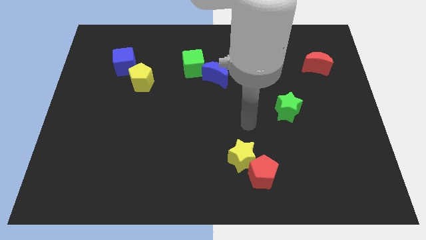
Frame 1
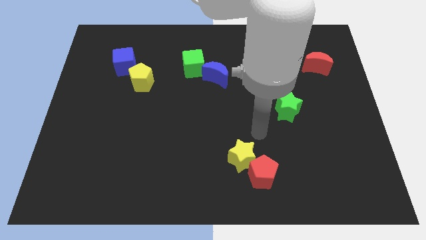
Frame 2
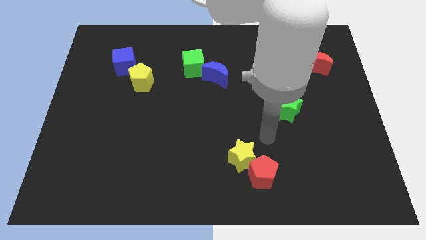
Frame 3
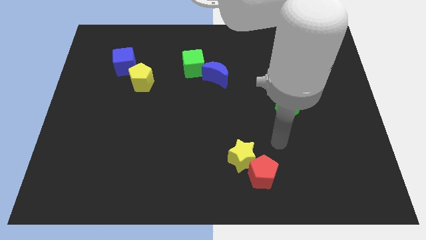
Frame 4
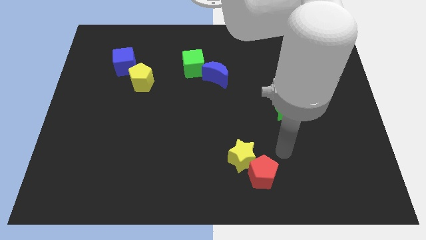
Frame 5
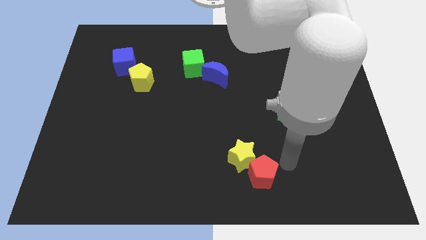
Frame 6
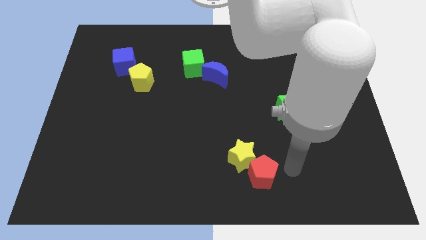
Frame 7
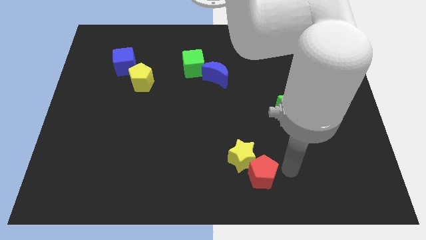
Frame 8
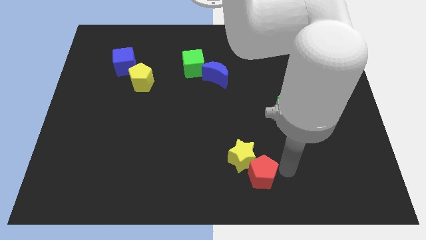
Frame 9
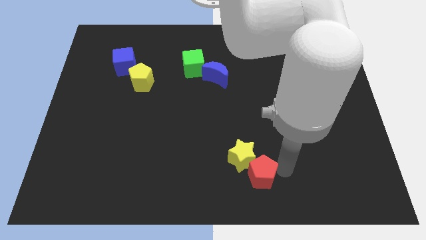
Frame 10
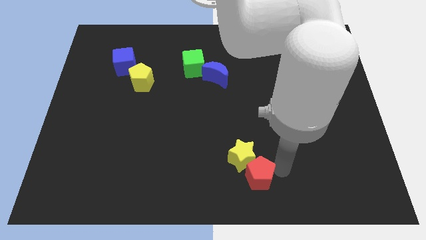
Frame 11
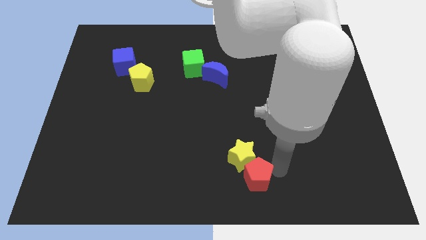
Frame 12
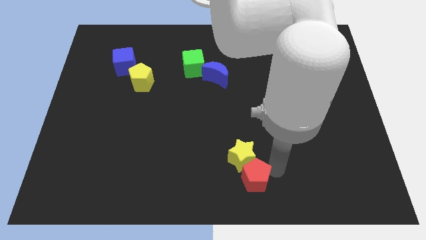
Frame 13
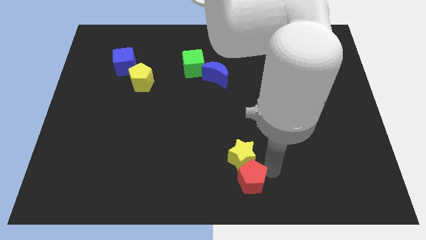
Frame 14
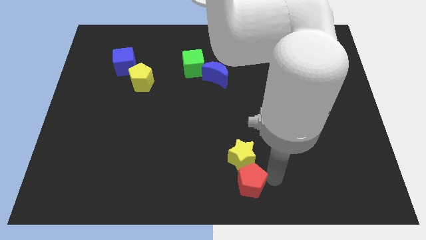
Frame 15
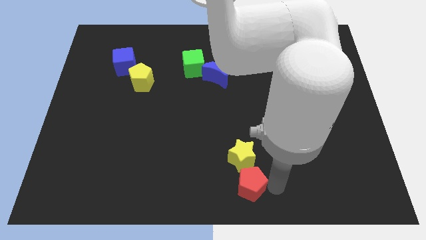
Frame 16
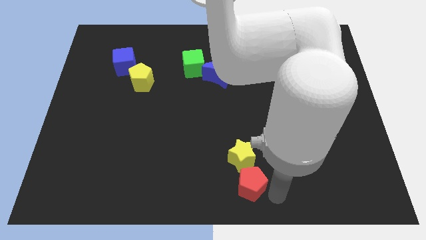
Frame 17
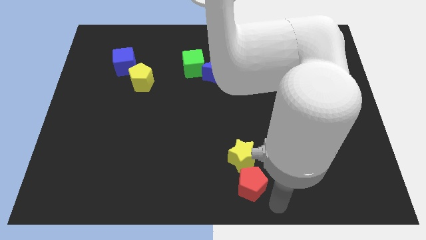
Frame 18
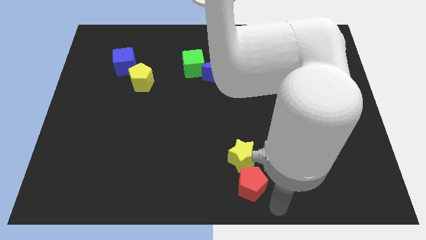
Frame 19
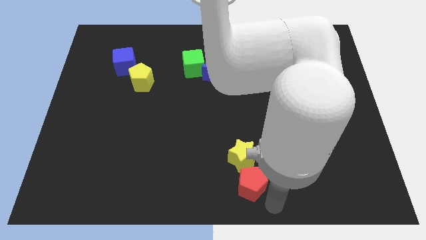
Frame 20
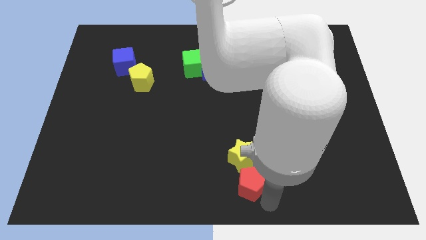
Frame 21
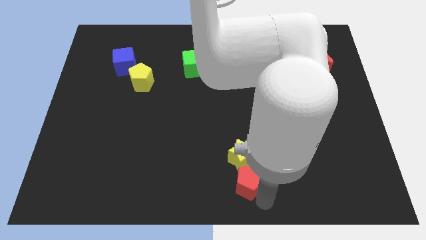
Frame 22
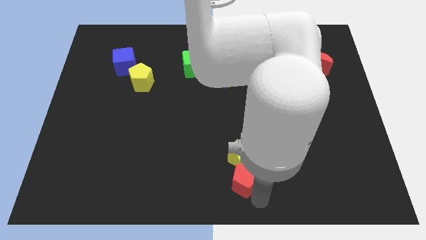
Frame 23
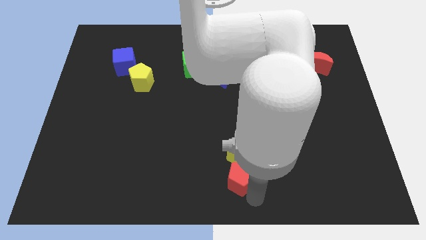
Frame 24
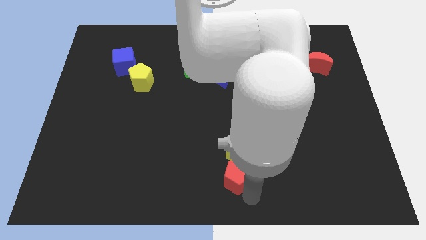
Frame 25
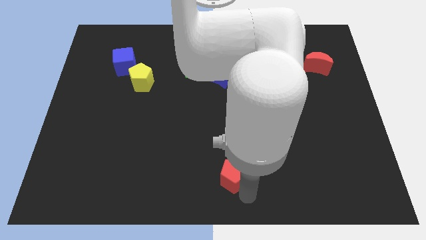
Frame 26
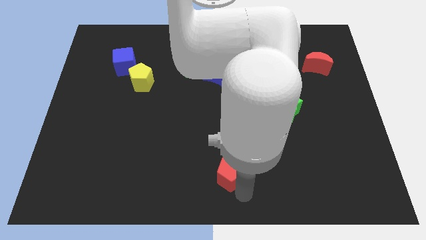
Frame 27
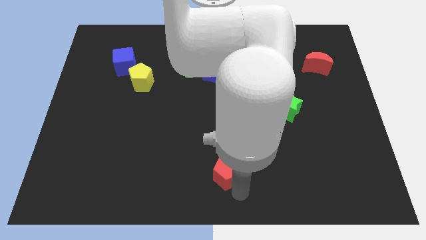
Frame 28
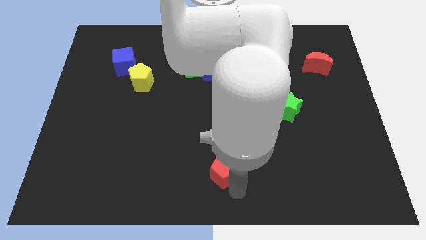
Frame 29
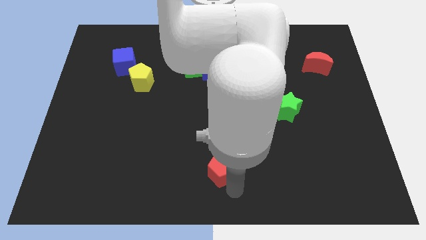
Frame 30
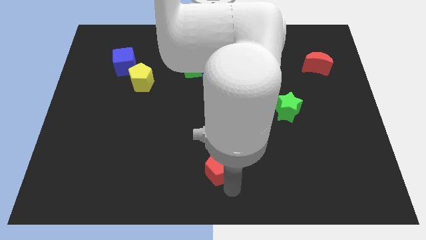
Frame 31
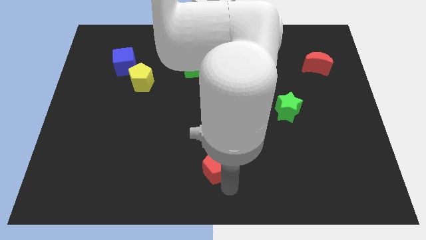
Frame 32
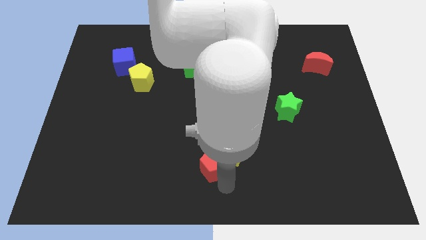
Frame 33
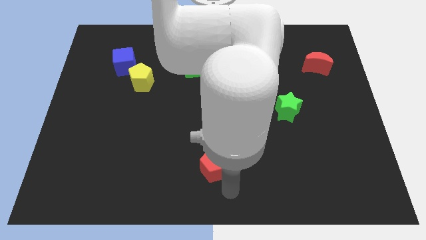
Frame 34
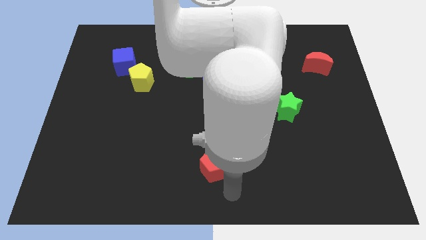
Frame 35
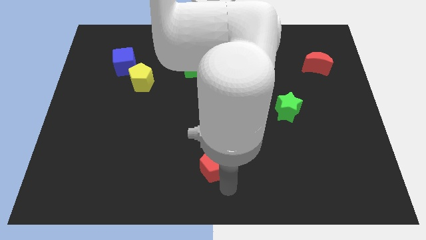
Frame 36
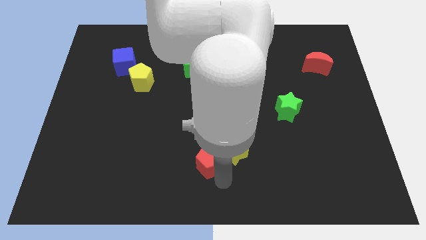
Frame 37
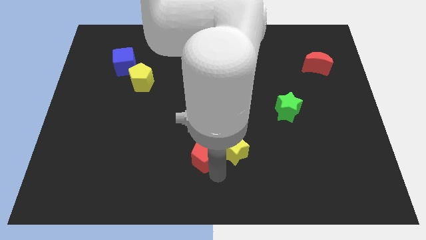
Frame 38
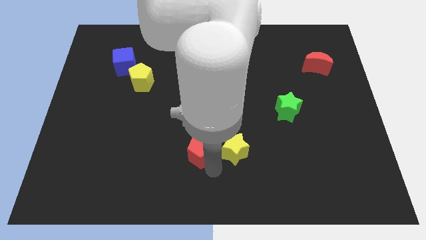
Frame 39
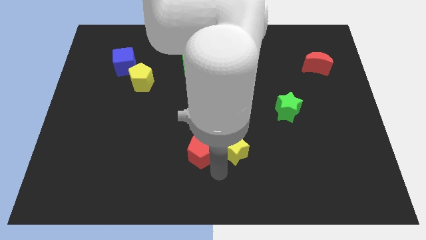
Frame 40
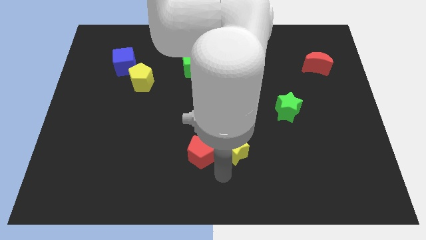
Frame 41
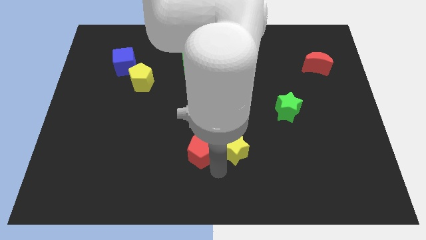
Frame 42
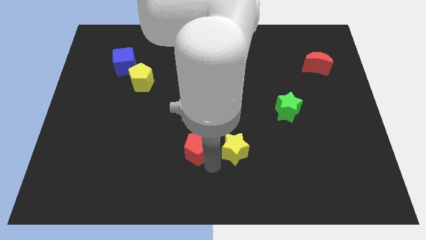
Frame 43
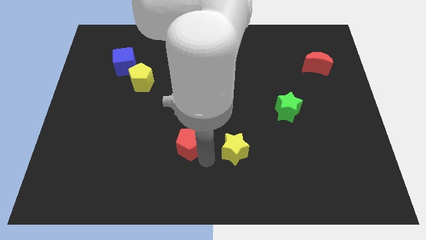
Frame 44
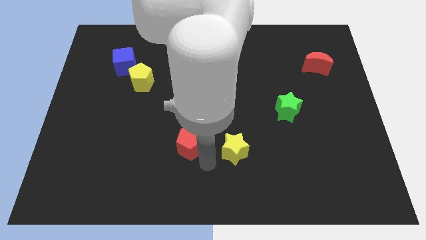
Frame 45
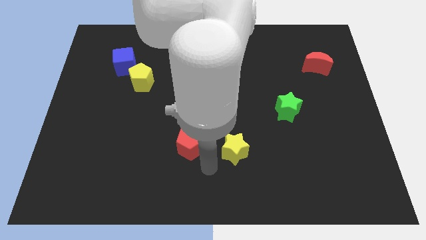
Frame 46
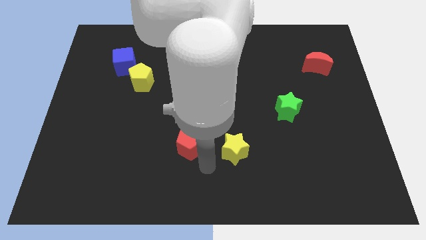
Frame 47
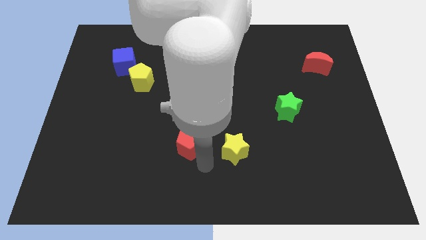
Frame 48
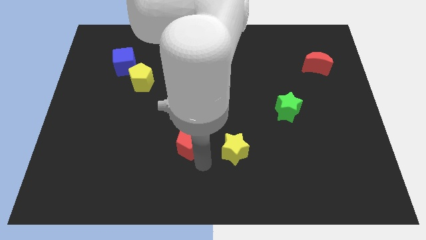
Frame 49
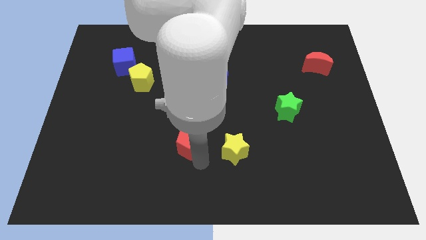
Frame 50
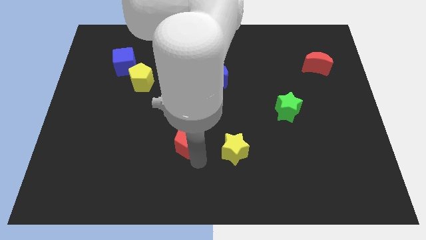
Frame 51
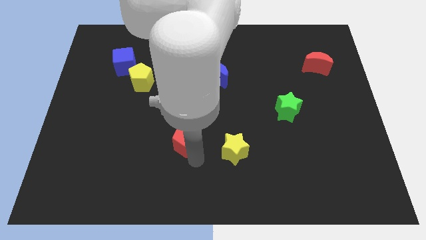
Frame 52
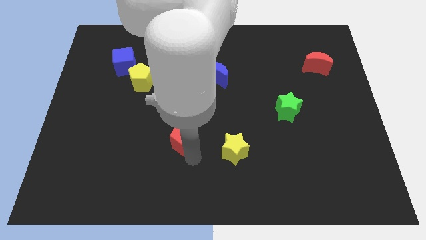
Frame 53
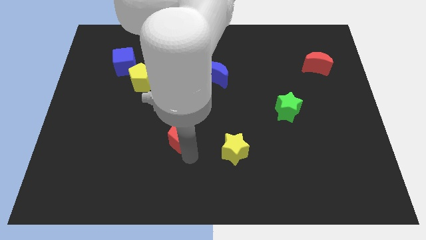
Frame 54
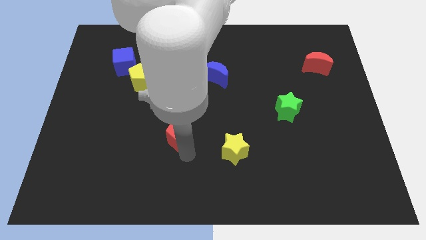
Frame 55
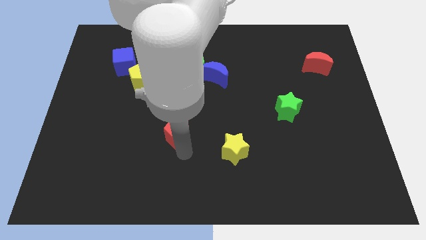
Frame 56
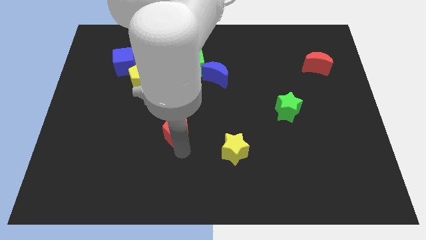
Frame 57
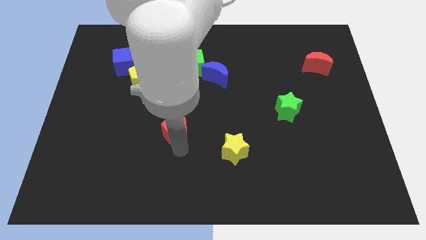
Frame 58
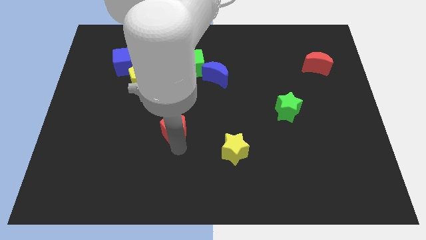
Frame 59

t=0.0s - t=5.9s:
push the red pentagon diagonally upwards and left

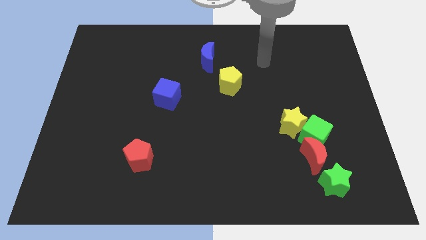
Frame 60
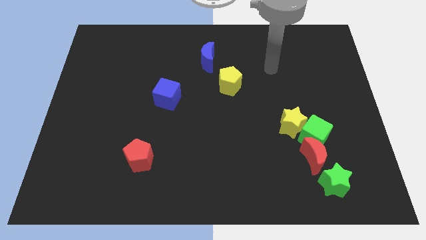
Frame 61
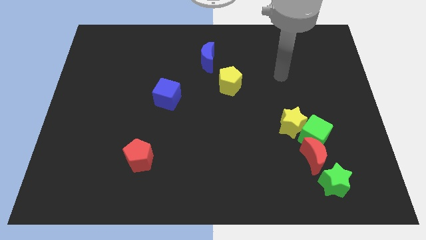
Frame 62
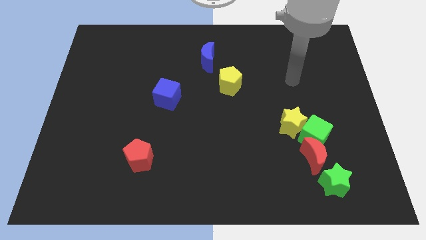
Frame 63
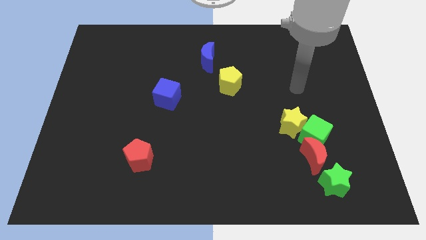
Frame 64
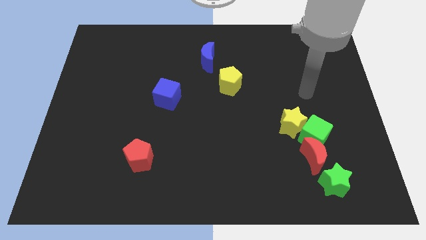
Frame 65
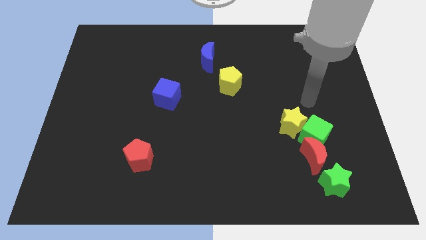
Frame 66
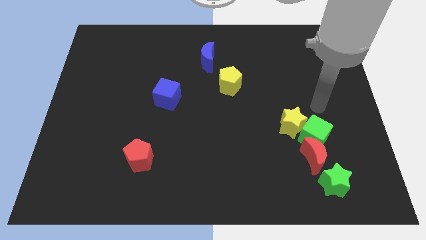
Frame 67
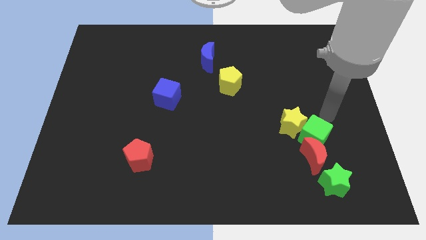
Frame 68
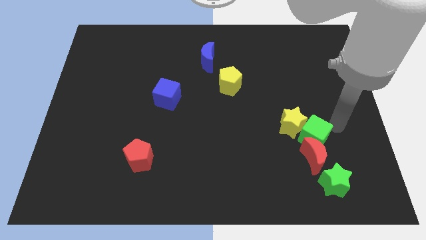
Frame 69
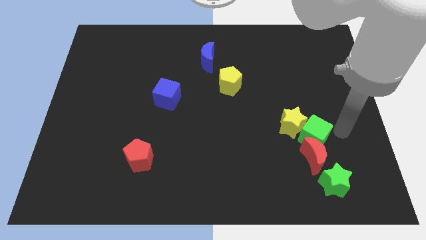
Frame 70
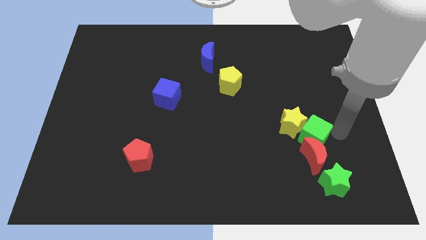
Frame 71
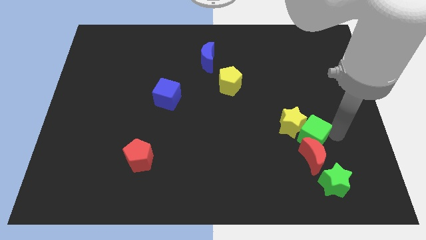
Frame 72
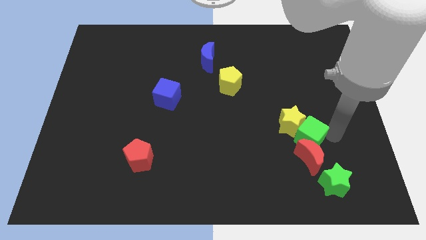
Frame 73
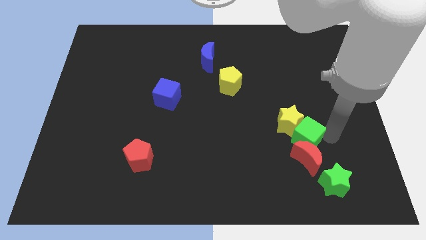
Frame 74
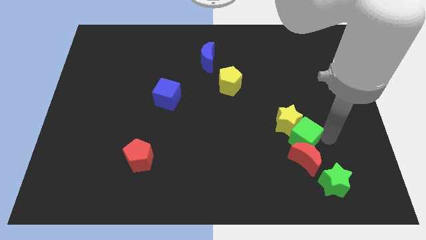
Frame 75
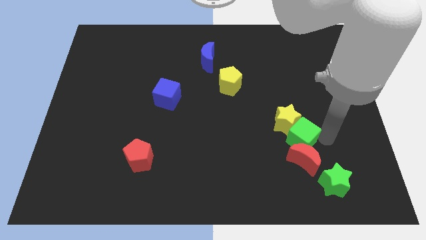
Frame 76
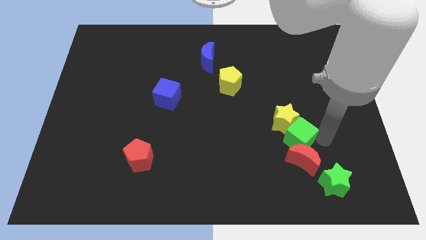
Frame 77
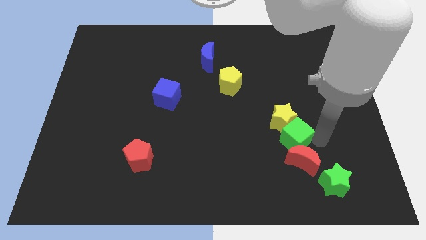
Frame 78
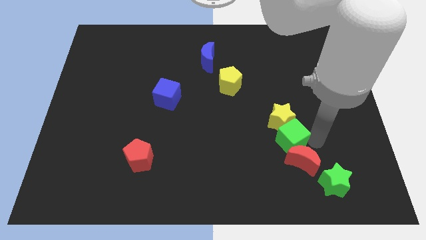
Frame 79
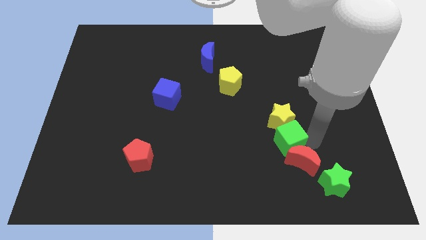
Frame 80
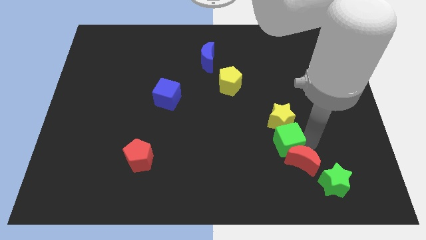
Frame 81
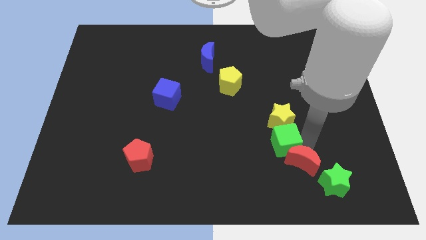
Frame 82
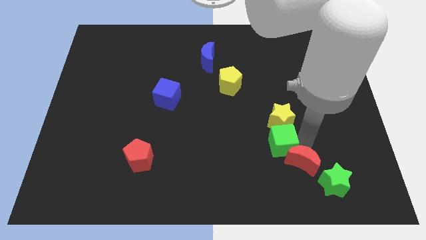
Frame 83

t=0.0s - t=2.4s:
slightly move the green cube to the left

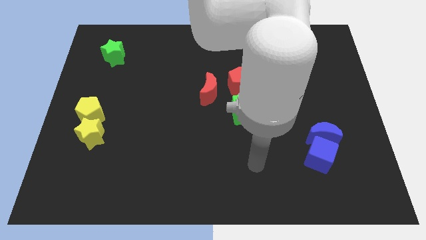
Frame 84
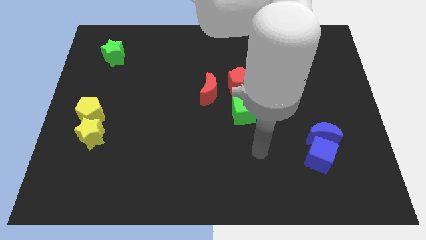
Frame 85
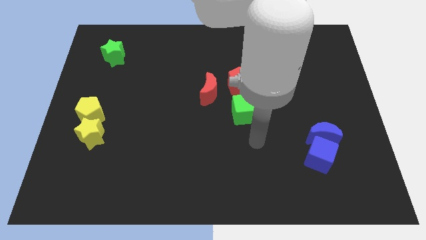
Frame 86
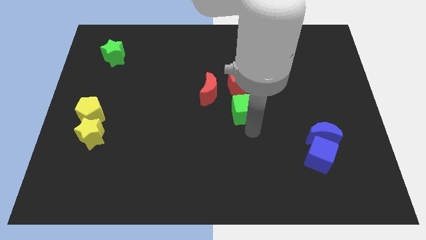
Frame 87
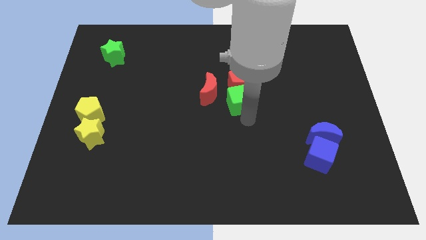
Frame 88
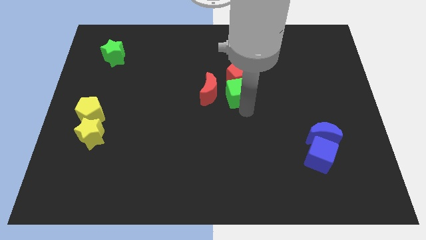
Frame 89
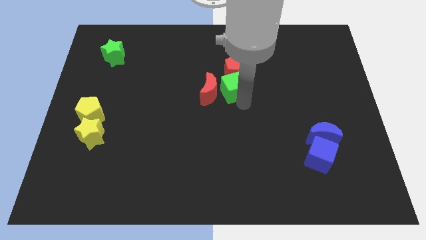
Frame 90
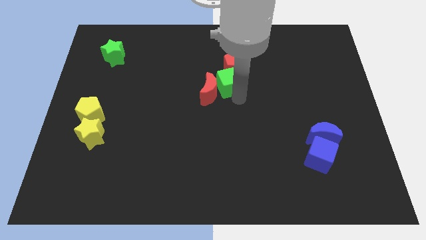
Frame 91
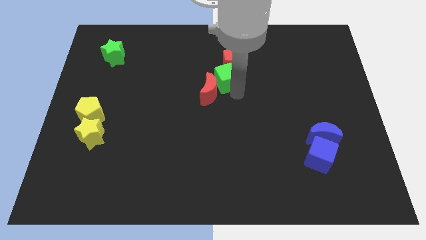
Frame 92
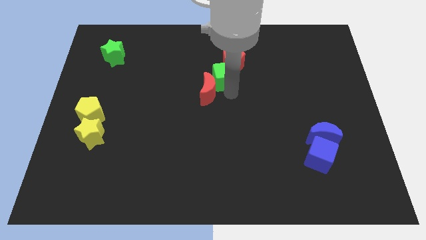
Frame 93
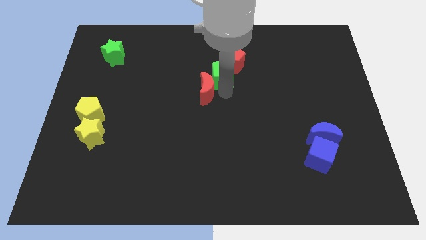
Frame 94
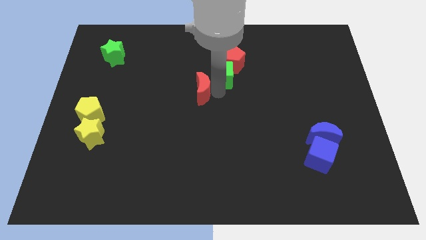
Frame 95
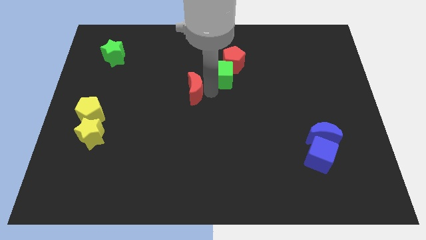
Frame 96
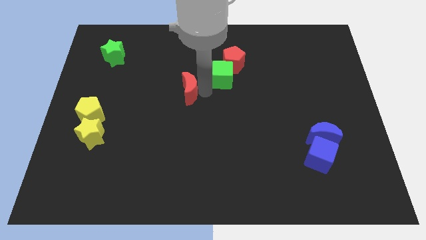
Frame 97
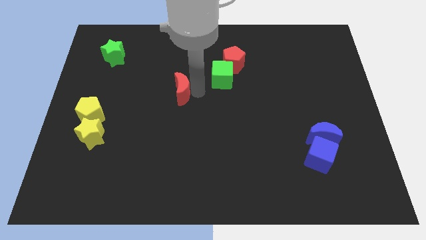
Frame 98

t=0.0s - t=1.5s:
move the red moon somewhat left
